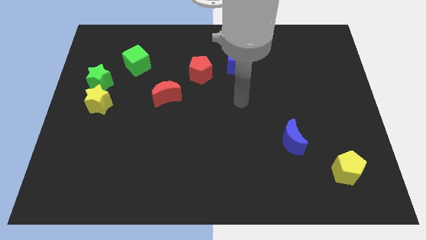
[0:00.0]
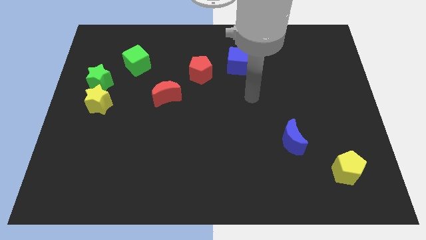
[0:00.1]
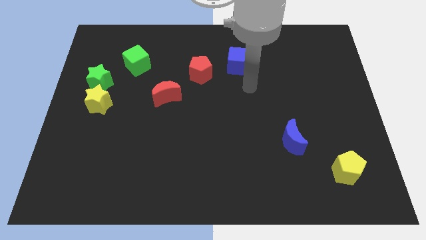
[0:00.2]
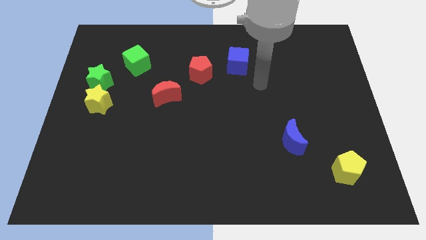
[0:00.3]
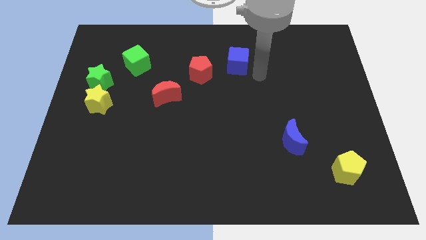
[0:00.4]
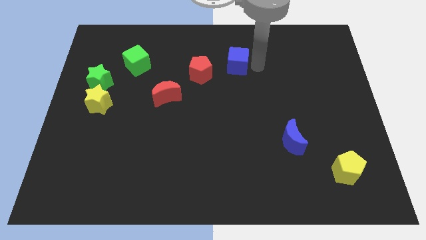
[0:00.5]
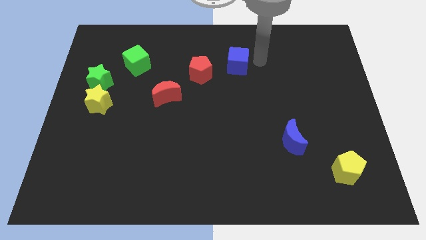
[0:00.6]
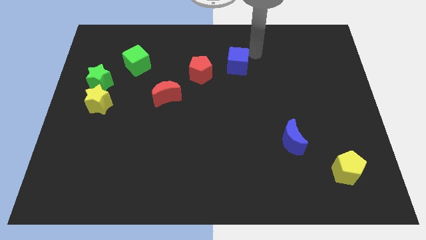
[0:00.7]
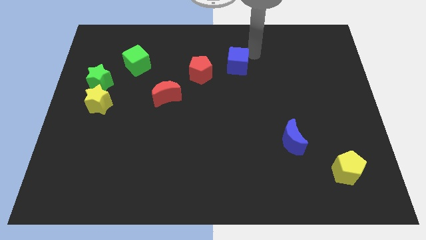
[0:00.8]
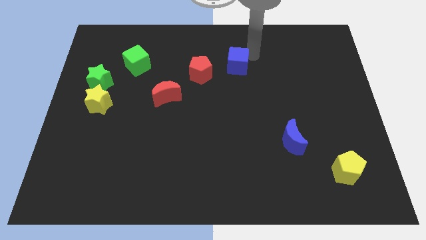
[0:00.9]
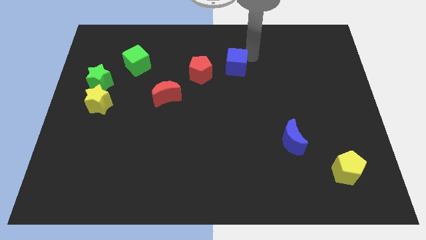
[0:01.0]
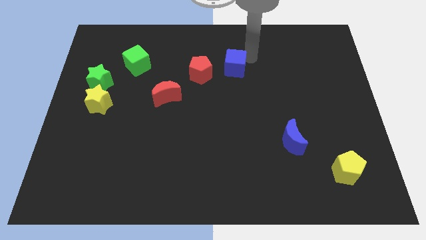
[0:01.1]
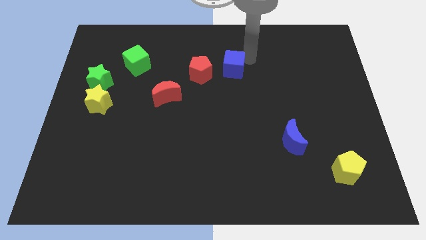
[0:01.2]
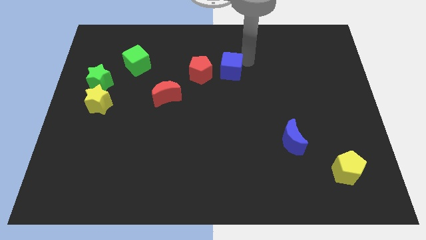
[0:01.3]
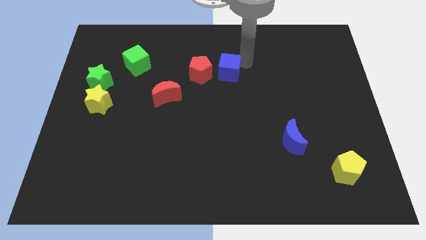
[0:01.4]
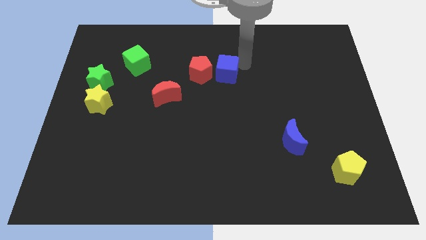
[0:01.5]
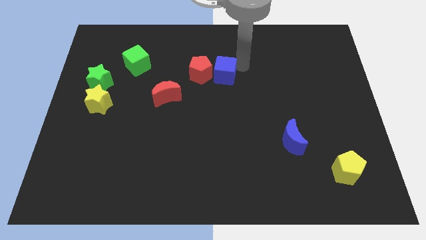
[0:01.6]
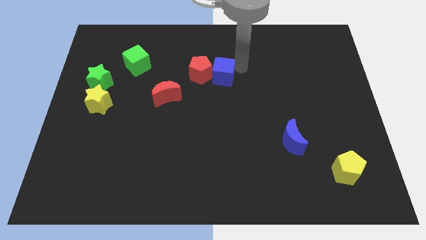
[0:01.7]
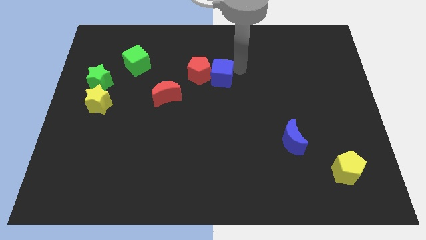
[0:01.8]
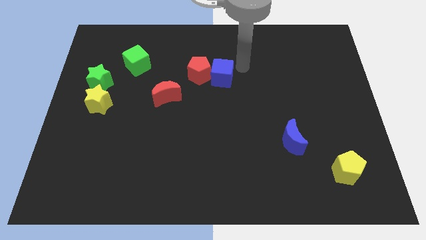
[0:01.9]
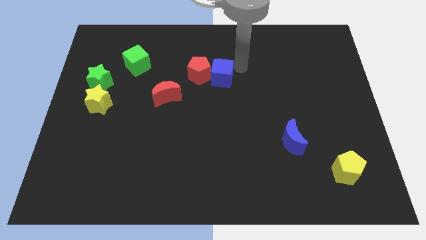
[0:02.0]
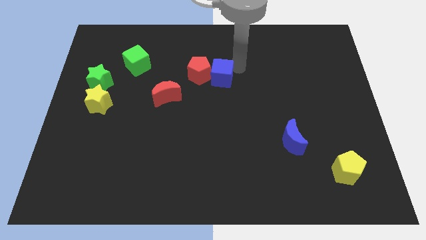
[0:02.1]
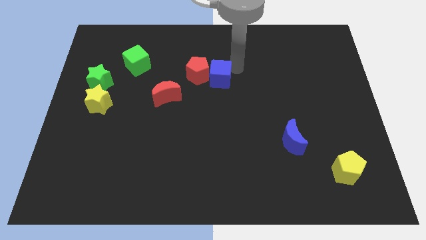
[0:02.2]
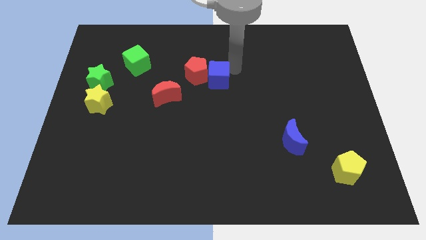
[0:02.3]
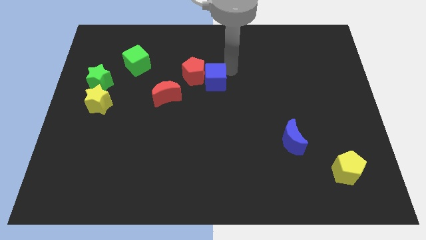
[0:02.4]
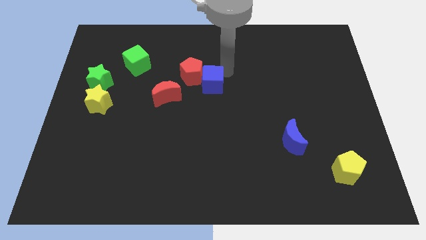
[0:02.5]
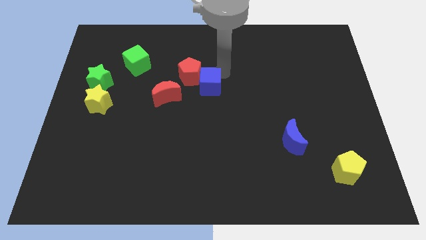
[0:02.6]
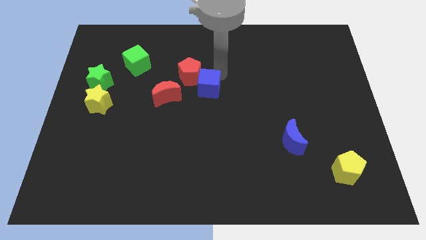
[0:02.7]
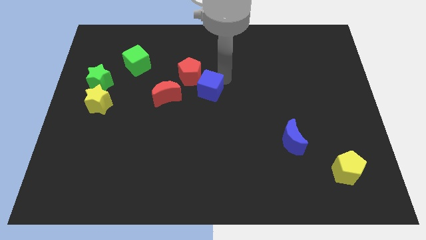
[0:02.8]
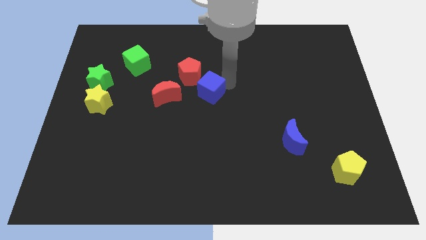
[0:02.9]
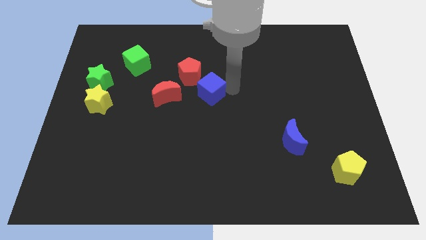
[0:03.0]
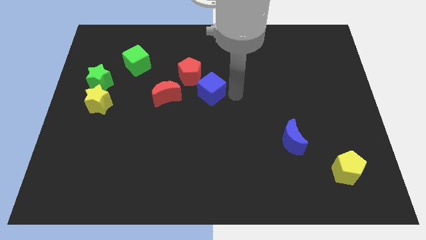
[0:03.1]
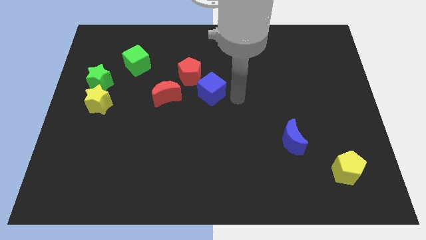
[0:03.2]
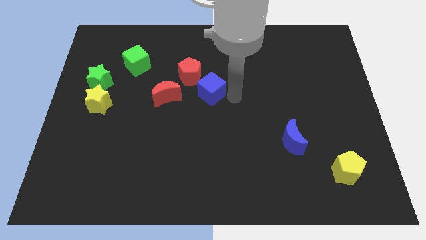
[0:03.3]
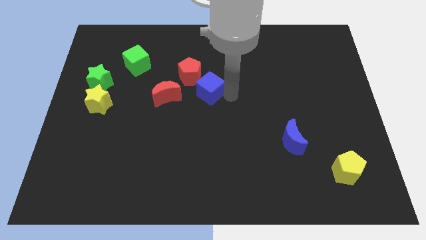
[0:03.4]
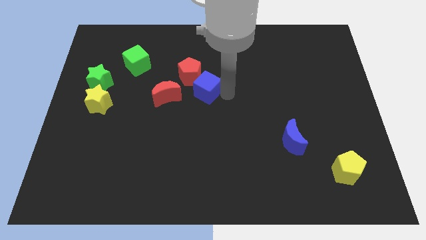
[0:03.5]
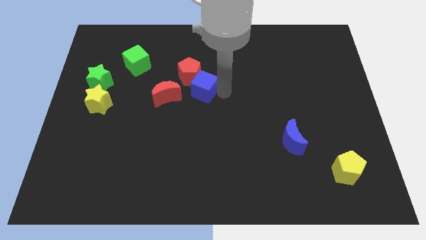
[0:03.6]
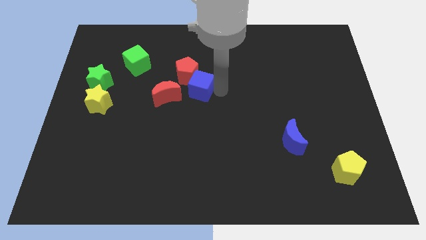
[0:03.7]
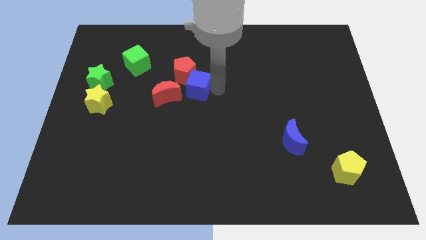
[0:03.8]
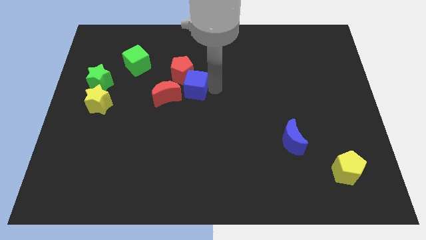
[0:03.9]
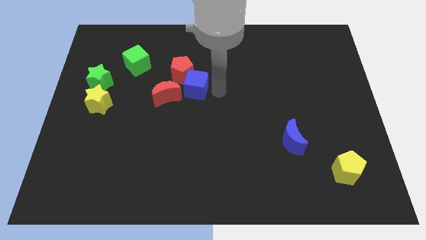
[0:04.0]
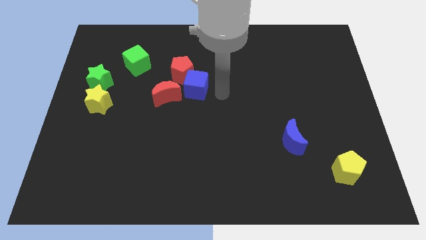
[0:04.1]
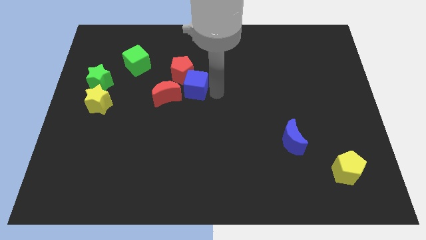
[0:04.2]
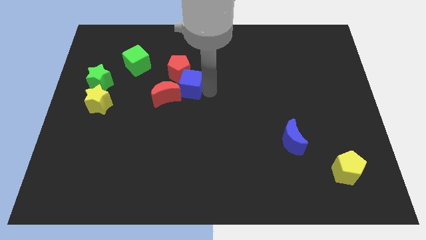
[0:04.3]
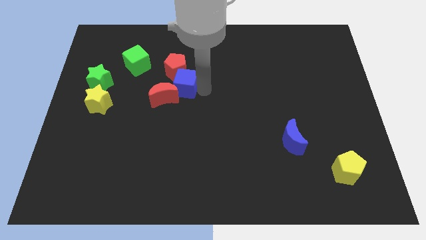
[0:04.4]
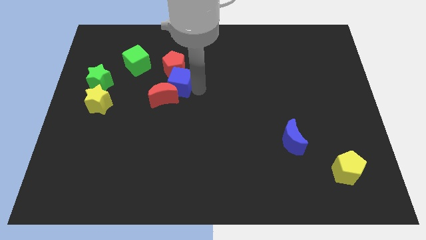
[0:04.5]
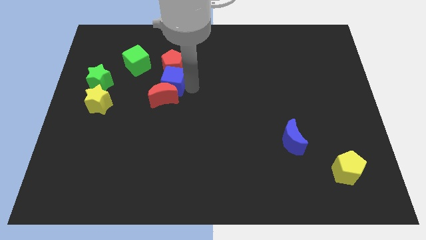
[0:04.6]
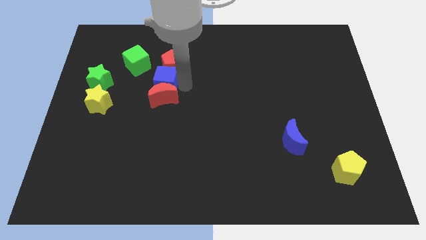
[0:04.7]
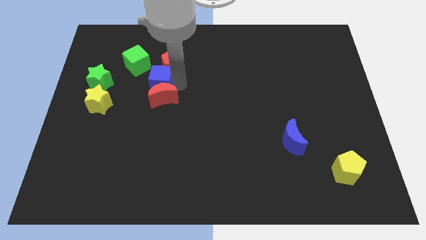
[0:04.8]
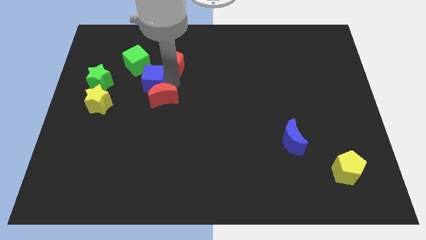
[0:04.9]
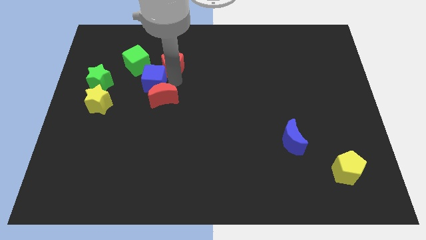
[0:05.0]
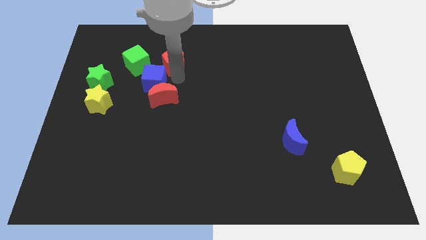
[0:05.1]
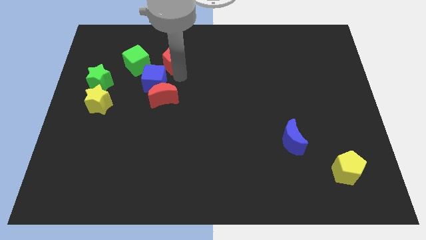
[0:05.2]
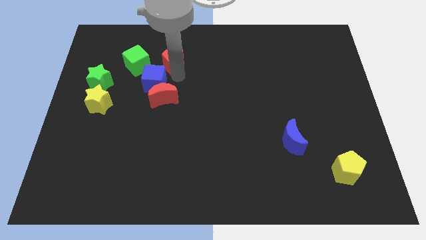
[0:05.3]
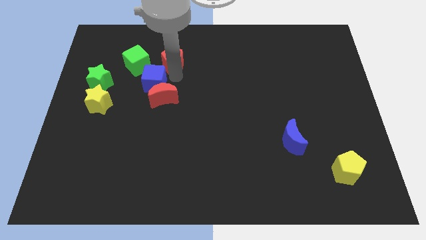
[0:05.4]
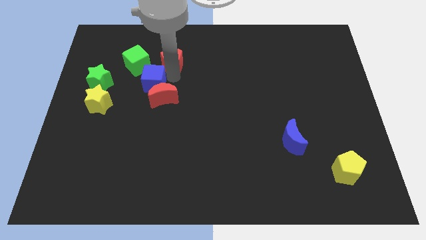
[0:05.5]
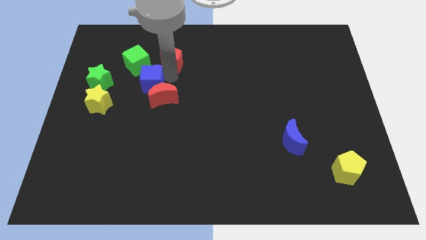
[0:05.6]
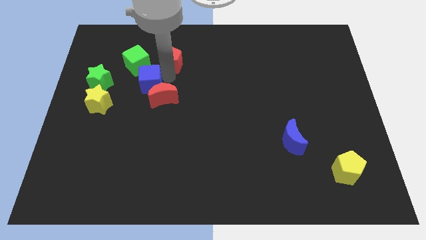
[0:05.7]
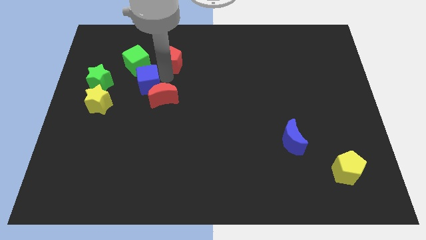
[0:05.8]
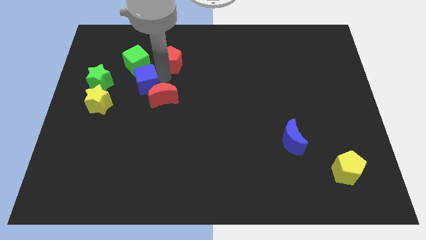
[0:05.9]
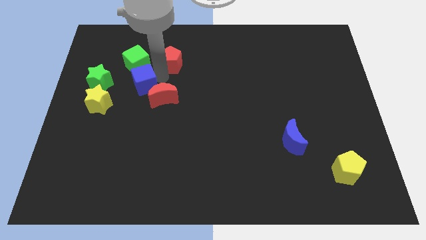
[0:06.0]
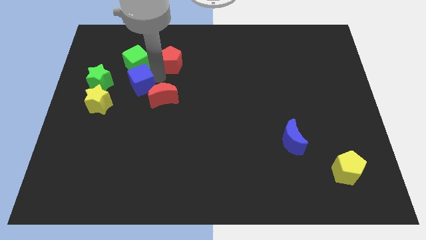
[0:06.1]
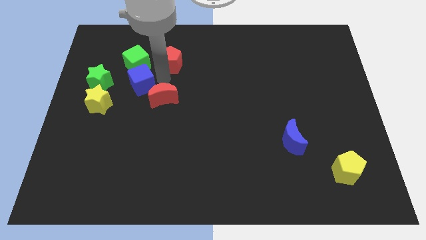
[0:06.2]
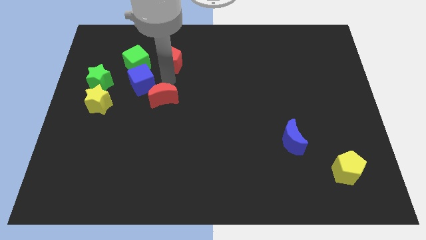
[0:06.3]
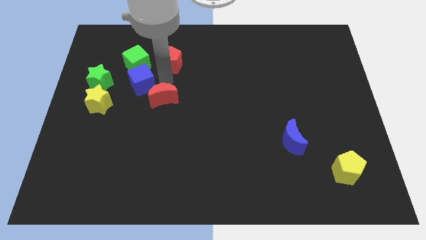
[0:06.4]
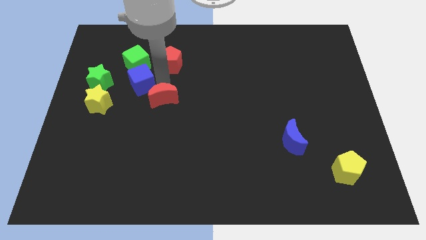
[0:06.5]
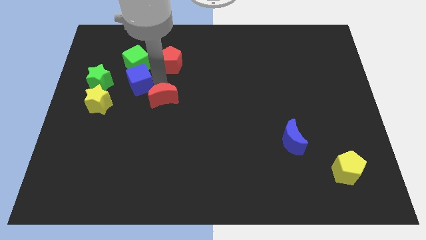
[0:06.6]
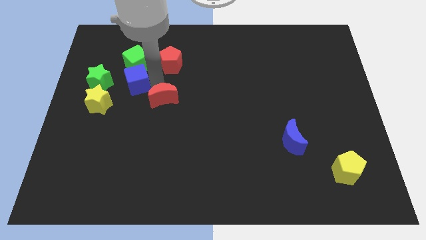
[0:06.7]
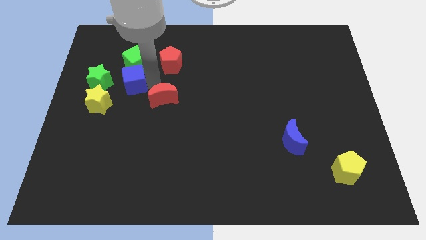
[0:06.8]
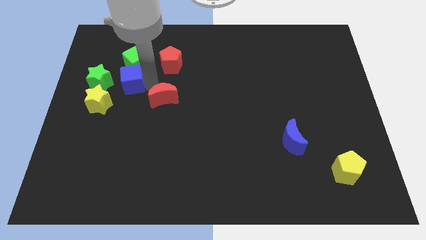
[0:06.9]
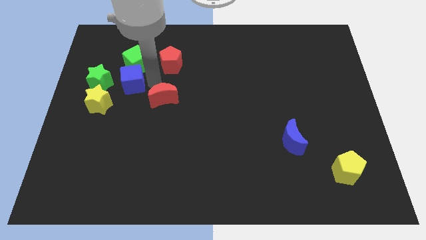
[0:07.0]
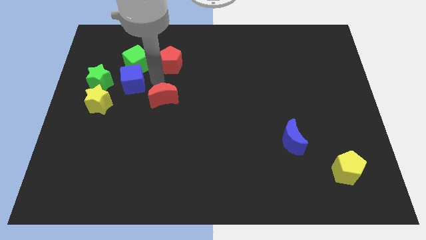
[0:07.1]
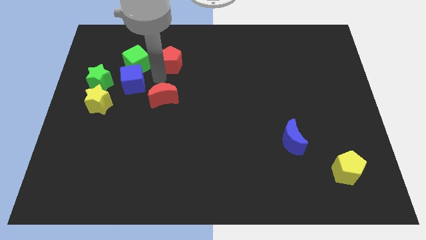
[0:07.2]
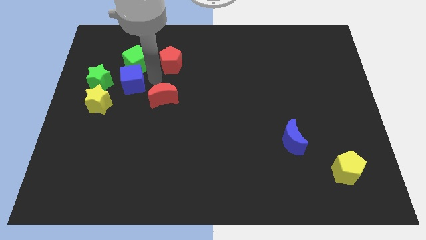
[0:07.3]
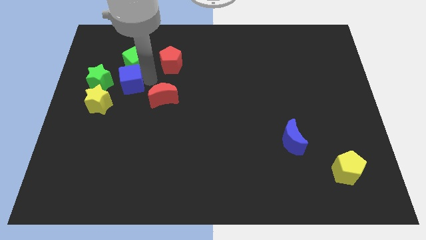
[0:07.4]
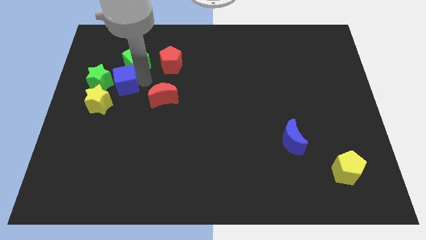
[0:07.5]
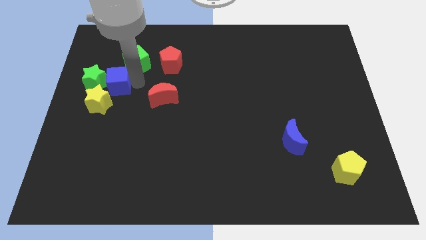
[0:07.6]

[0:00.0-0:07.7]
push the blue cube close to the green star

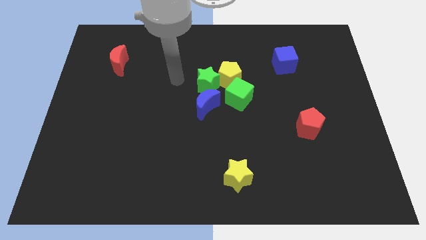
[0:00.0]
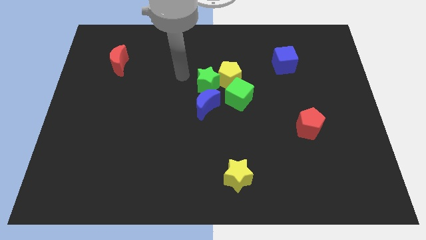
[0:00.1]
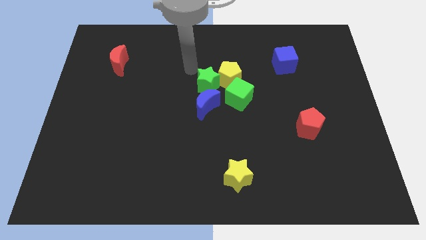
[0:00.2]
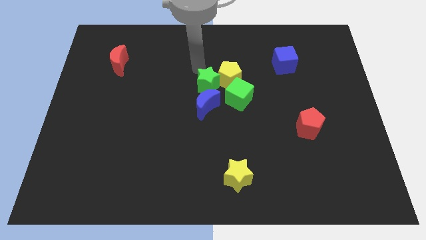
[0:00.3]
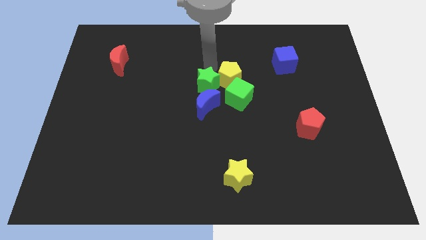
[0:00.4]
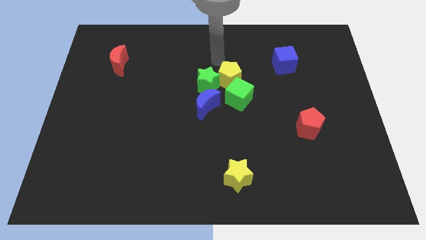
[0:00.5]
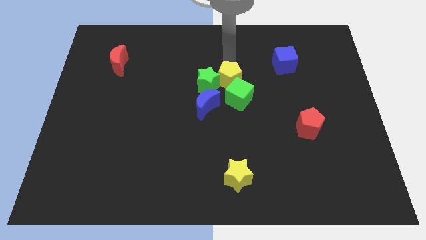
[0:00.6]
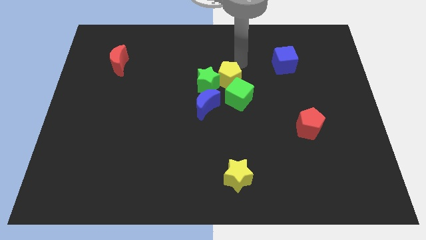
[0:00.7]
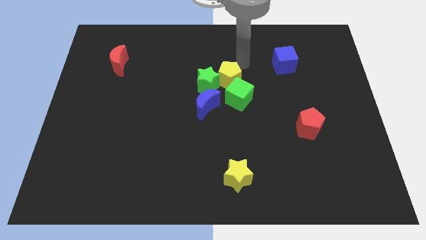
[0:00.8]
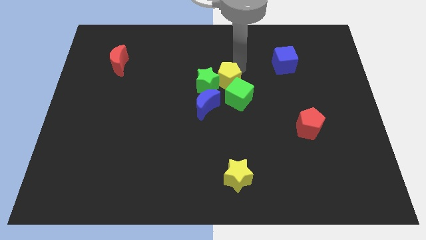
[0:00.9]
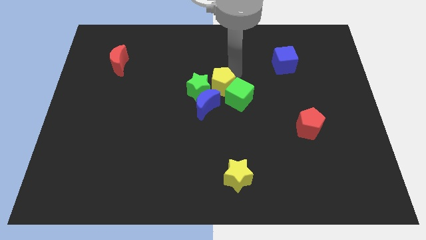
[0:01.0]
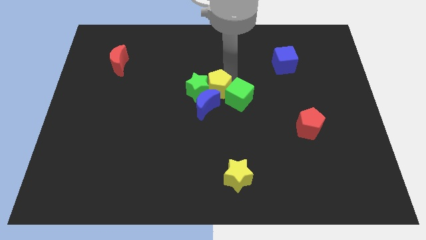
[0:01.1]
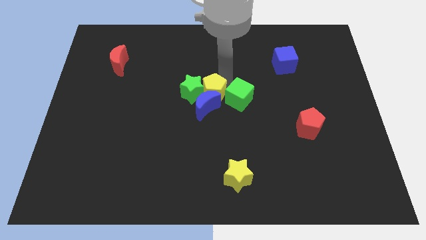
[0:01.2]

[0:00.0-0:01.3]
put the yellow pentagon next to the blue moon
